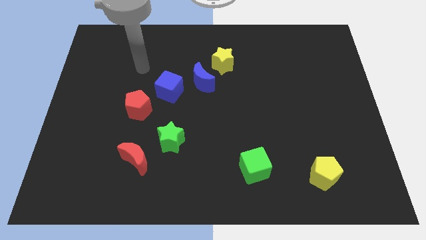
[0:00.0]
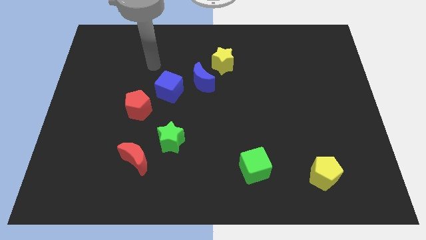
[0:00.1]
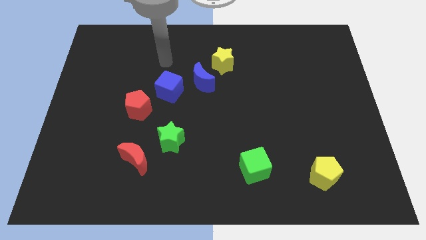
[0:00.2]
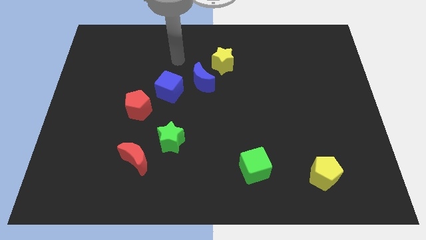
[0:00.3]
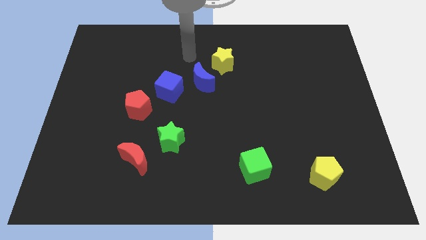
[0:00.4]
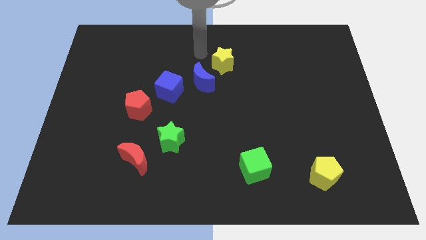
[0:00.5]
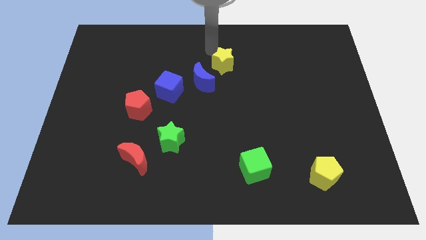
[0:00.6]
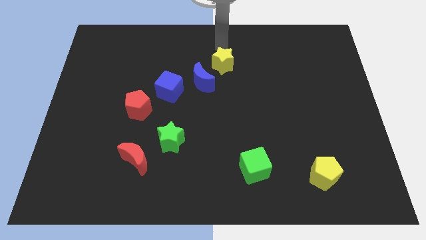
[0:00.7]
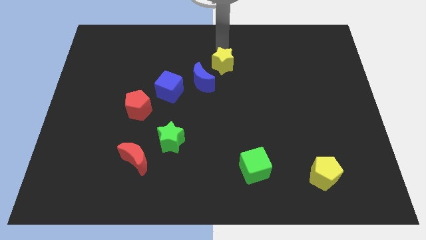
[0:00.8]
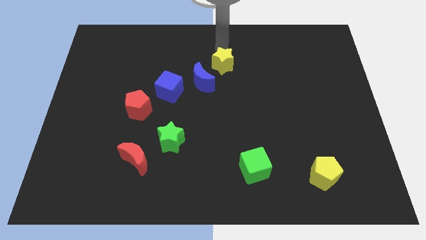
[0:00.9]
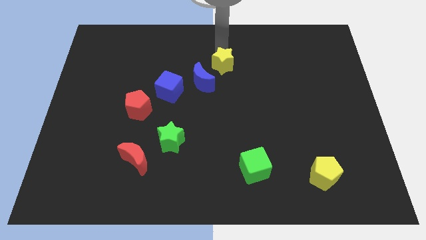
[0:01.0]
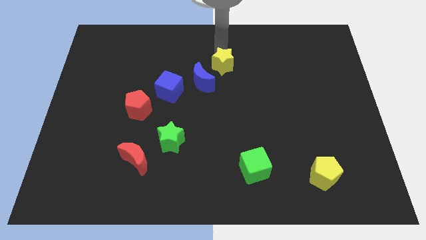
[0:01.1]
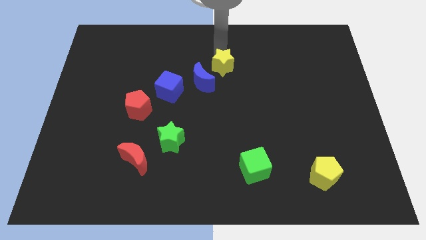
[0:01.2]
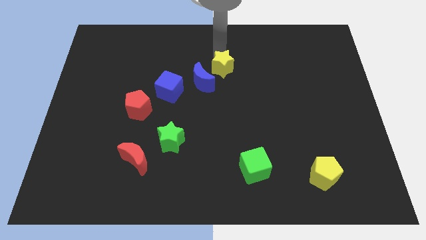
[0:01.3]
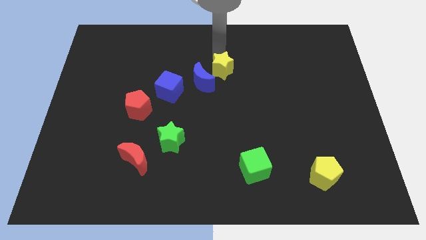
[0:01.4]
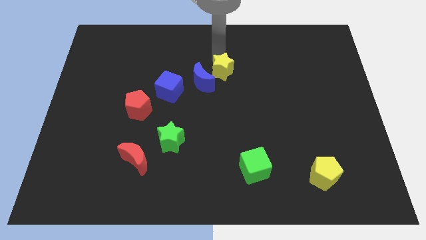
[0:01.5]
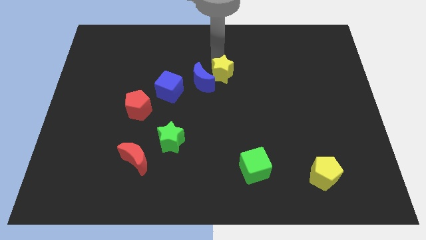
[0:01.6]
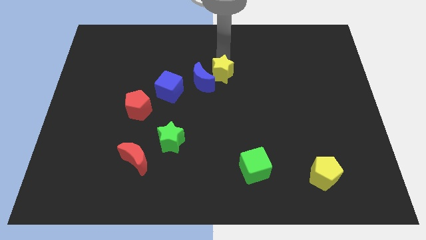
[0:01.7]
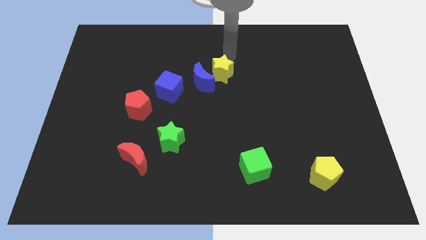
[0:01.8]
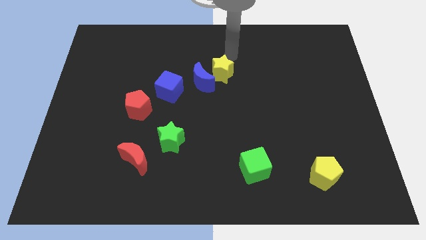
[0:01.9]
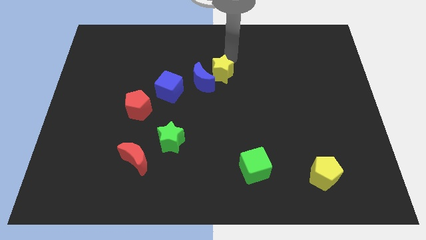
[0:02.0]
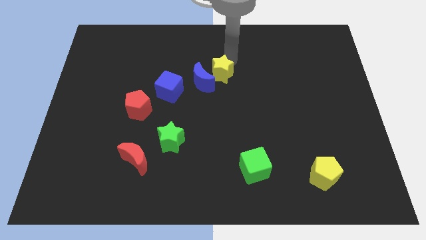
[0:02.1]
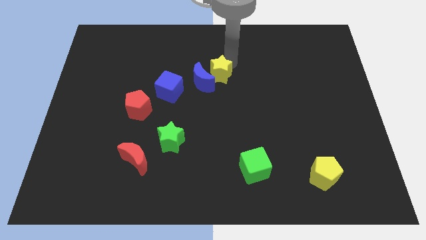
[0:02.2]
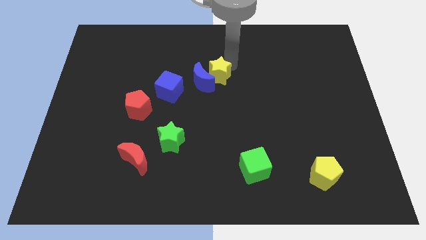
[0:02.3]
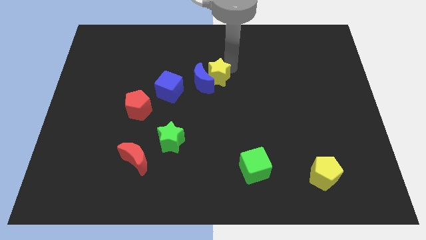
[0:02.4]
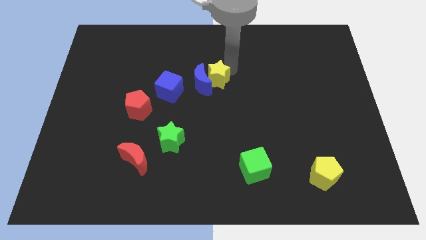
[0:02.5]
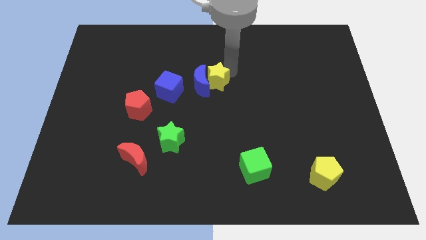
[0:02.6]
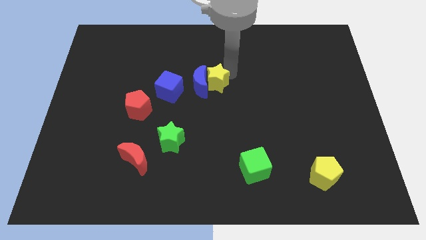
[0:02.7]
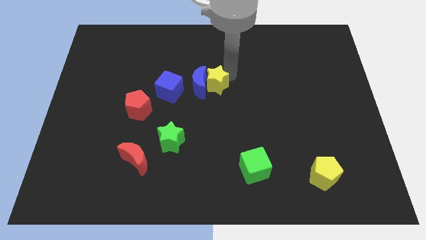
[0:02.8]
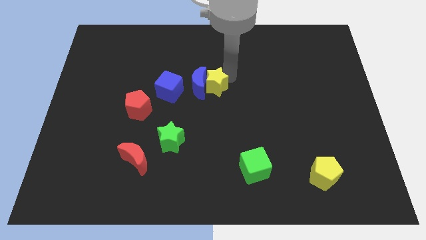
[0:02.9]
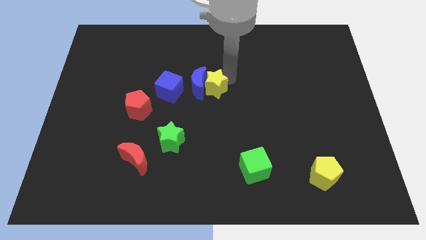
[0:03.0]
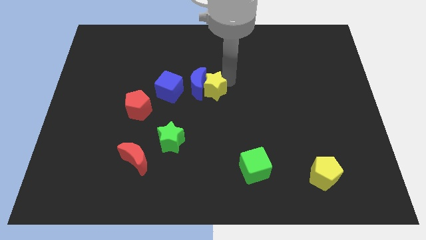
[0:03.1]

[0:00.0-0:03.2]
slide the yellow star down and left diagonally a little

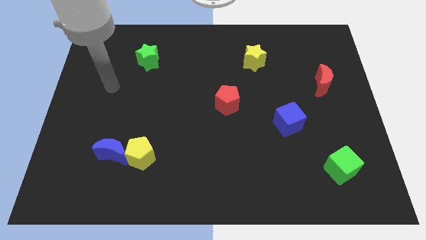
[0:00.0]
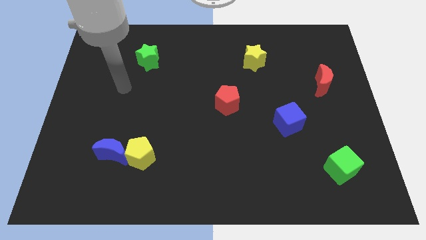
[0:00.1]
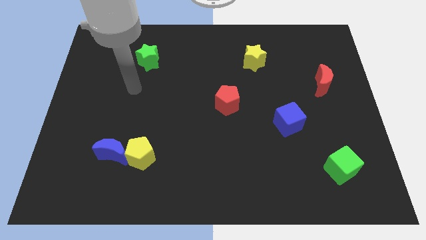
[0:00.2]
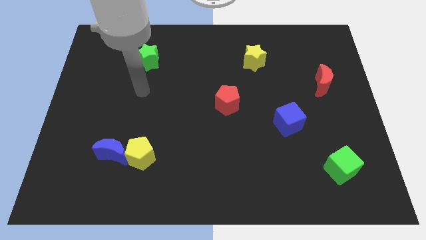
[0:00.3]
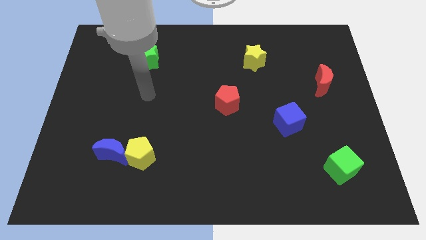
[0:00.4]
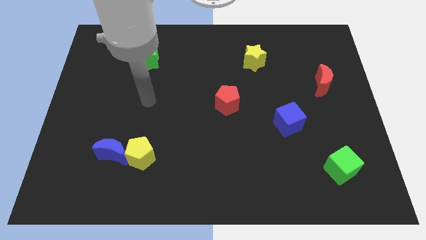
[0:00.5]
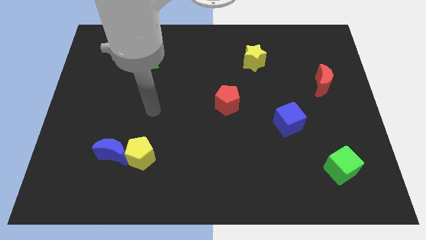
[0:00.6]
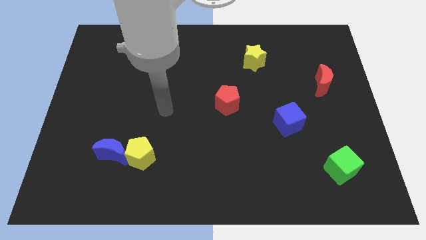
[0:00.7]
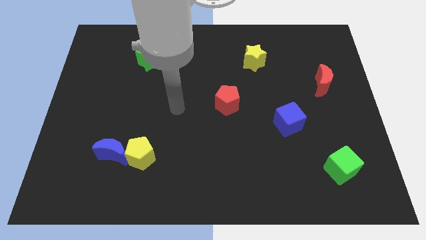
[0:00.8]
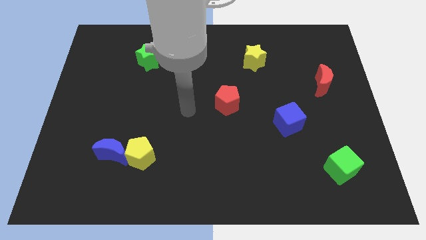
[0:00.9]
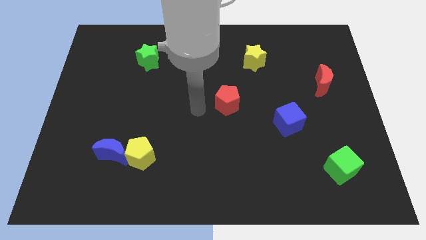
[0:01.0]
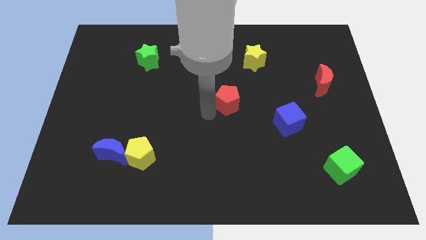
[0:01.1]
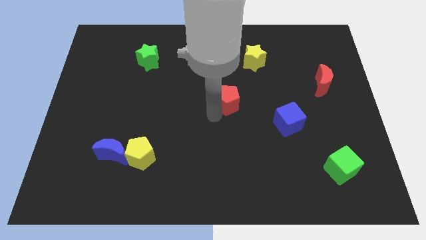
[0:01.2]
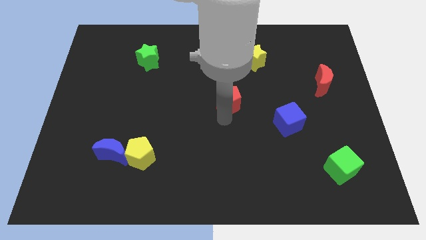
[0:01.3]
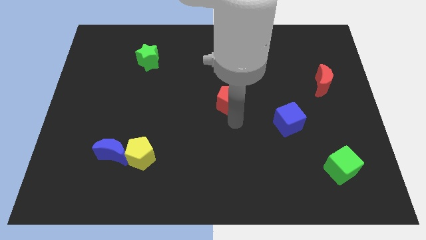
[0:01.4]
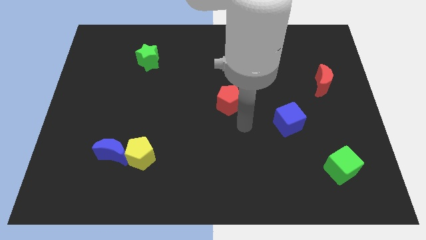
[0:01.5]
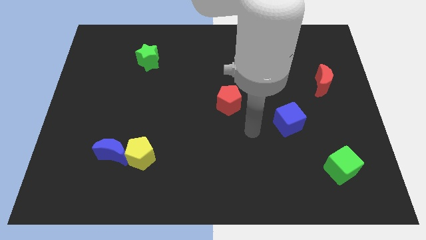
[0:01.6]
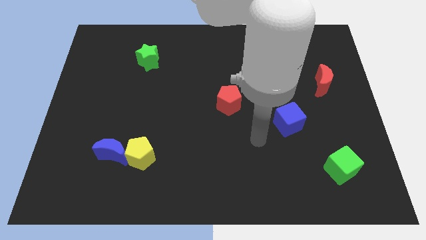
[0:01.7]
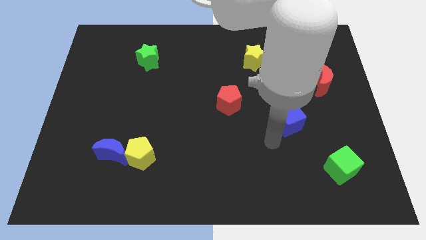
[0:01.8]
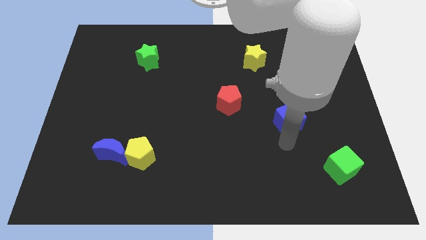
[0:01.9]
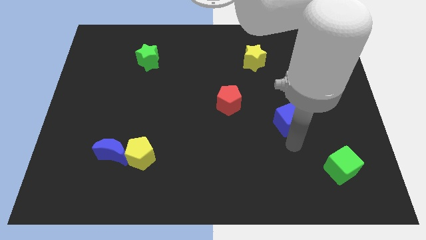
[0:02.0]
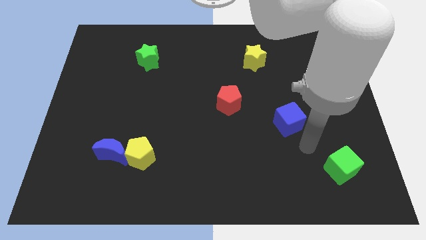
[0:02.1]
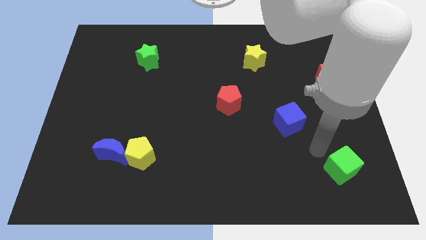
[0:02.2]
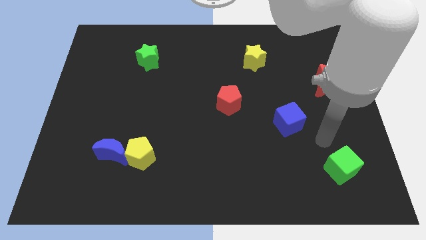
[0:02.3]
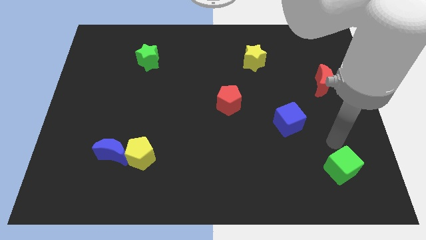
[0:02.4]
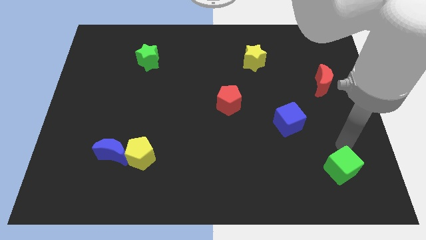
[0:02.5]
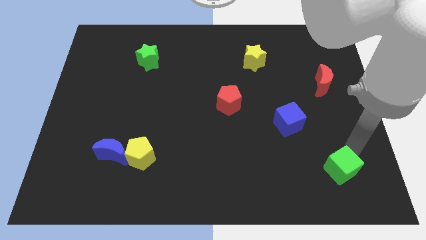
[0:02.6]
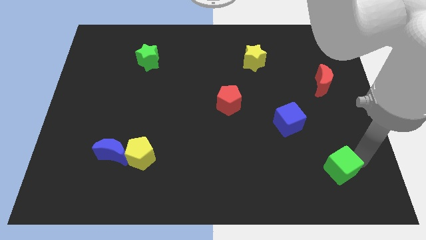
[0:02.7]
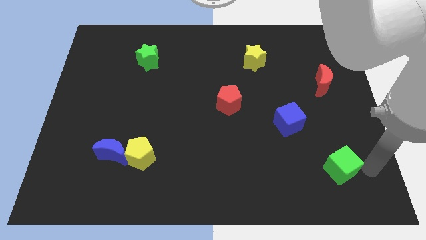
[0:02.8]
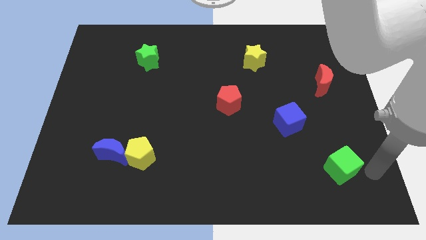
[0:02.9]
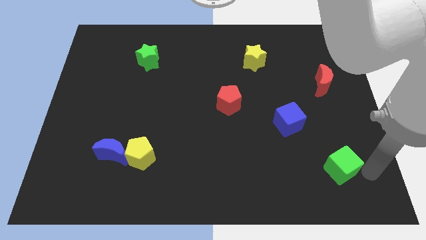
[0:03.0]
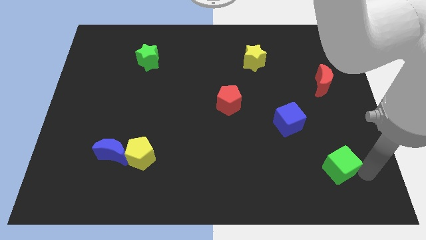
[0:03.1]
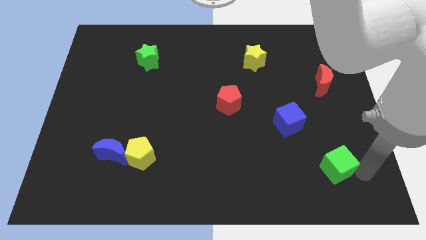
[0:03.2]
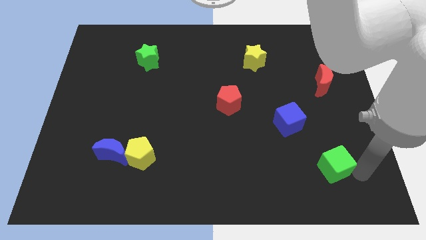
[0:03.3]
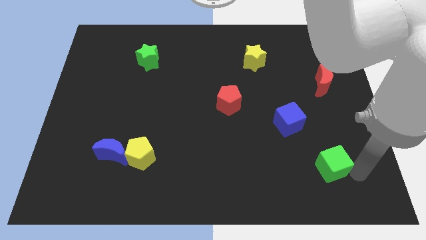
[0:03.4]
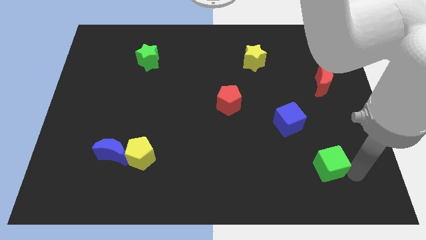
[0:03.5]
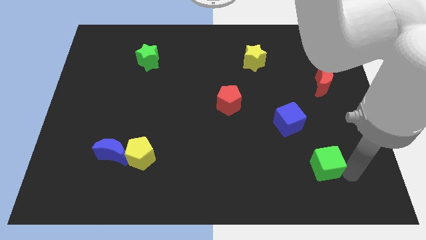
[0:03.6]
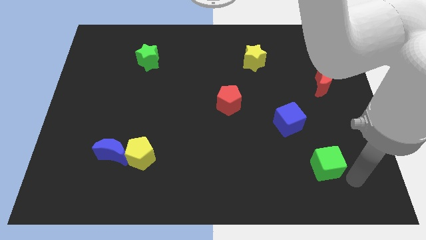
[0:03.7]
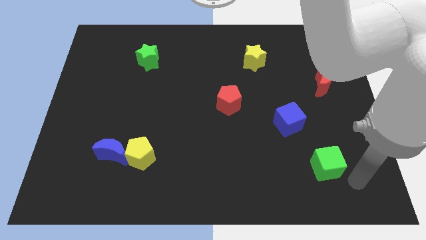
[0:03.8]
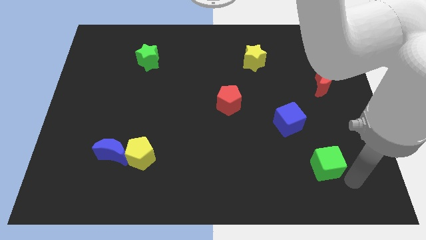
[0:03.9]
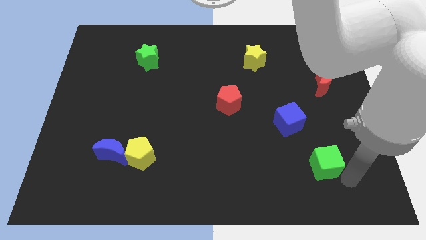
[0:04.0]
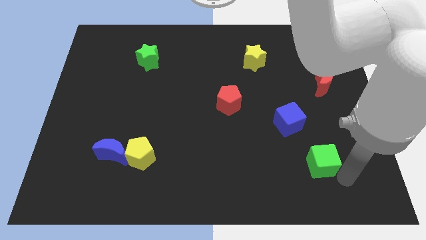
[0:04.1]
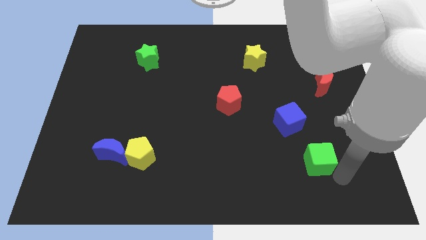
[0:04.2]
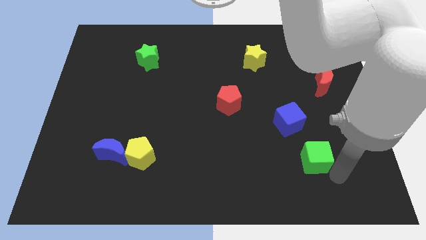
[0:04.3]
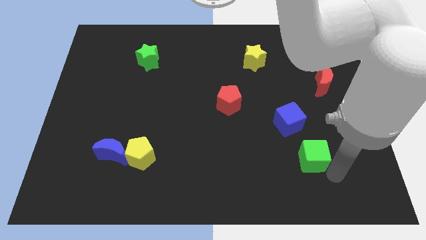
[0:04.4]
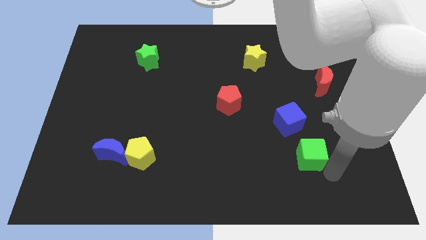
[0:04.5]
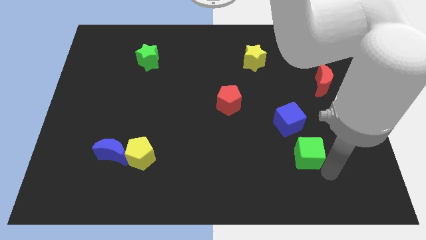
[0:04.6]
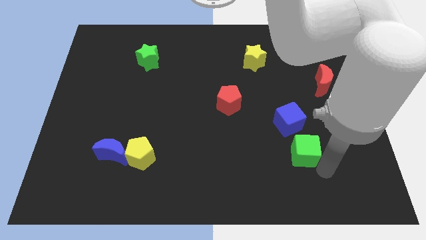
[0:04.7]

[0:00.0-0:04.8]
slide the green cube a little bit upwards and left

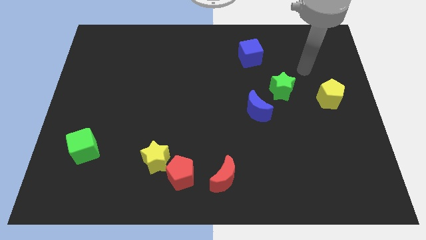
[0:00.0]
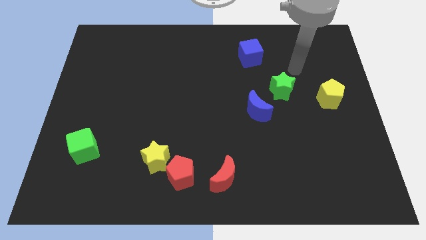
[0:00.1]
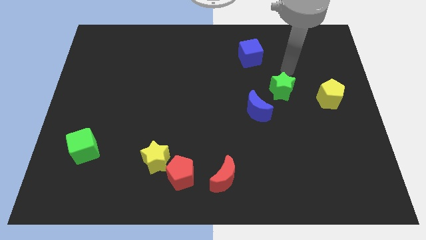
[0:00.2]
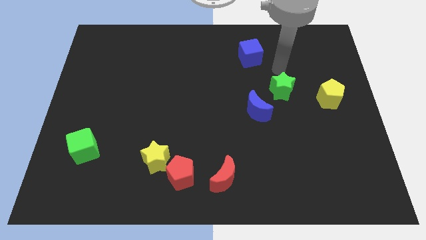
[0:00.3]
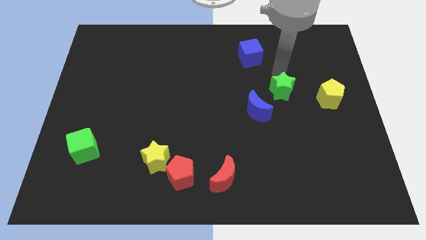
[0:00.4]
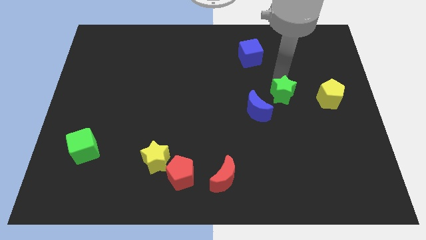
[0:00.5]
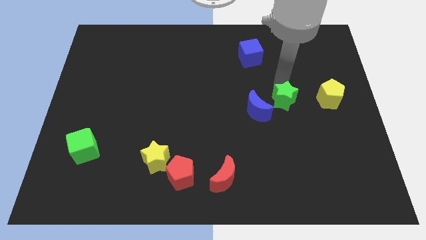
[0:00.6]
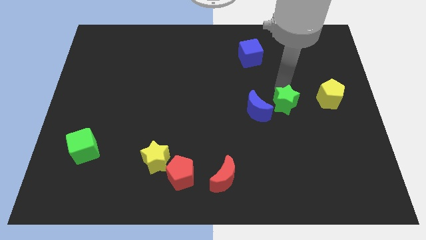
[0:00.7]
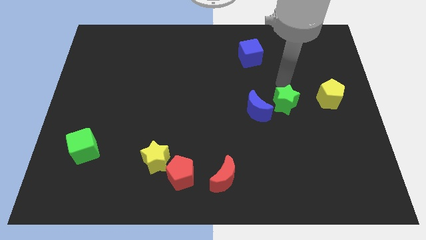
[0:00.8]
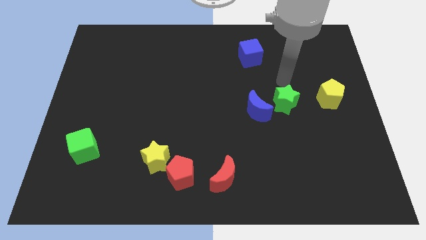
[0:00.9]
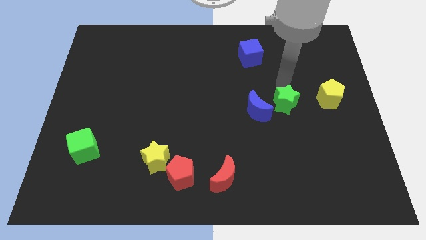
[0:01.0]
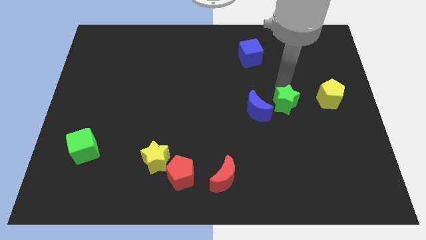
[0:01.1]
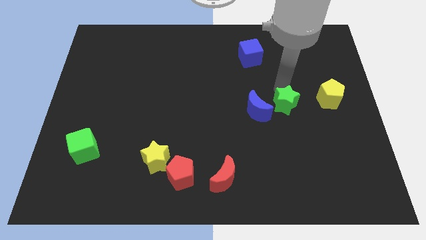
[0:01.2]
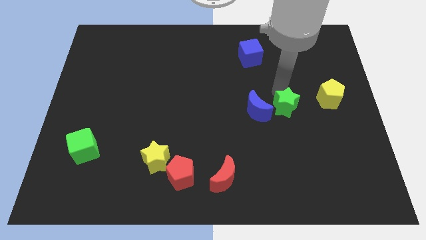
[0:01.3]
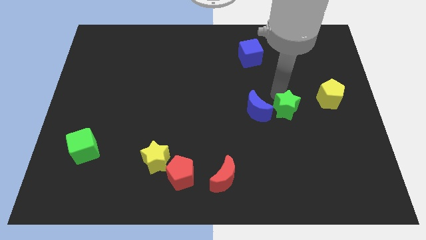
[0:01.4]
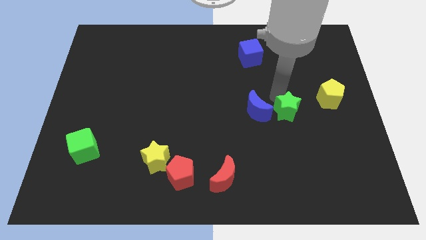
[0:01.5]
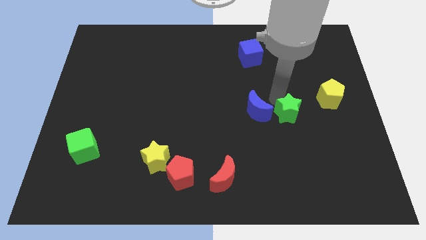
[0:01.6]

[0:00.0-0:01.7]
slightly move the green star down
